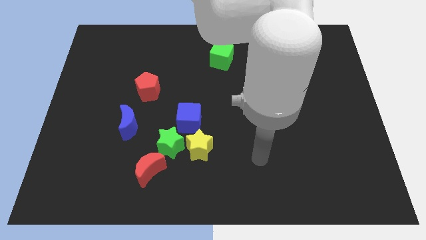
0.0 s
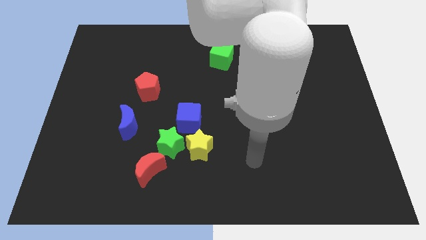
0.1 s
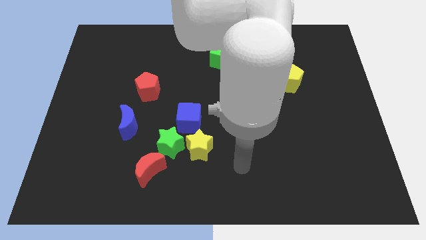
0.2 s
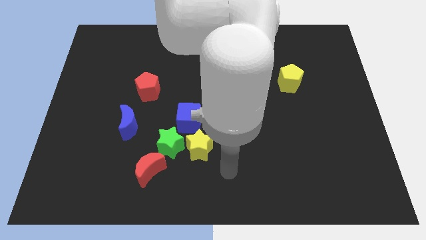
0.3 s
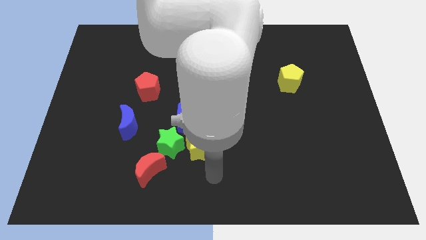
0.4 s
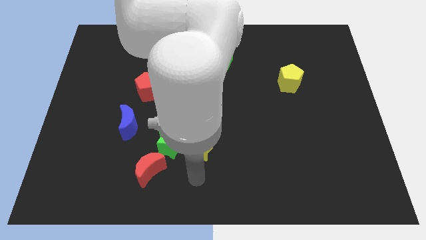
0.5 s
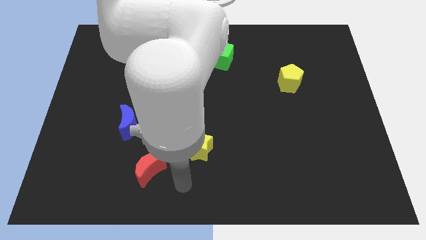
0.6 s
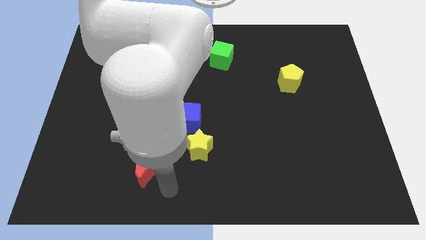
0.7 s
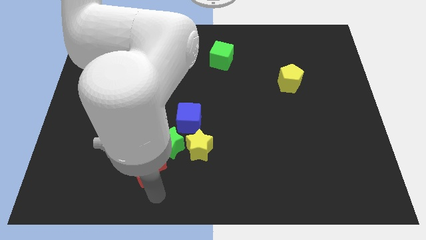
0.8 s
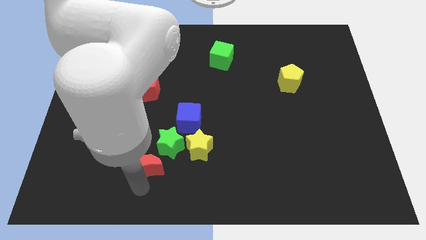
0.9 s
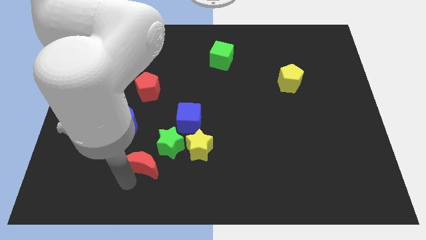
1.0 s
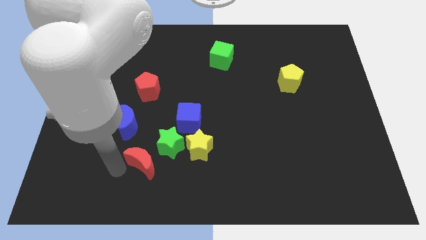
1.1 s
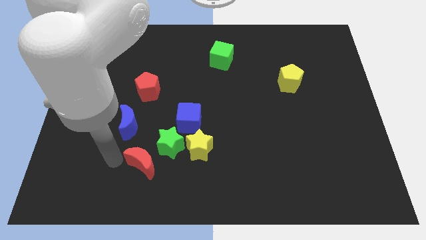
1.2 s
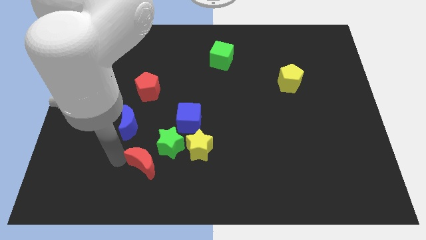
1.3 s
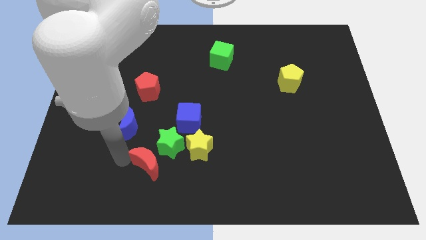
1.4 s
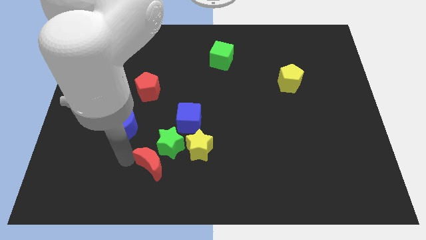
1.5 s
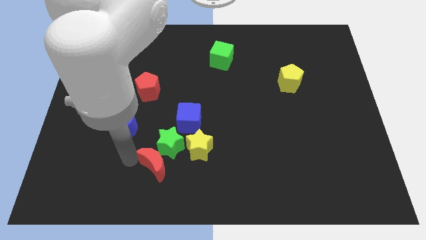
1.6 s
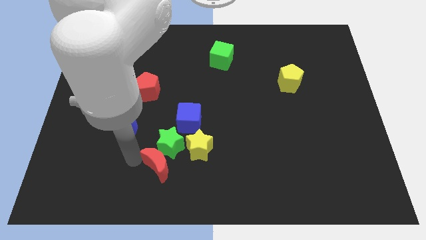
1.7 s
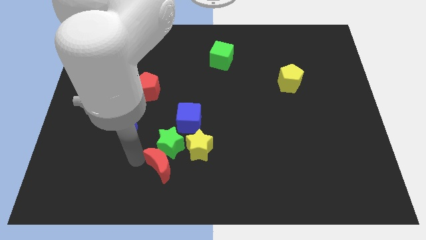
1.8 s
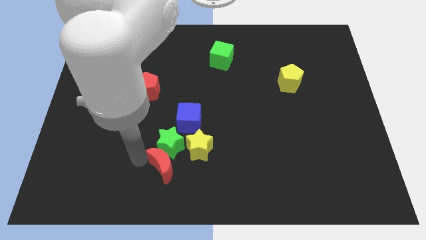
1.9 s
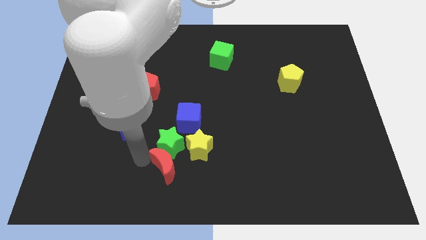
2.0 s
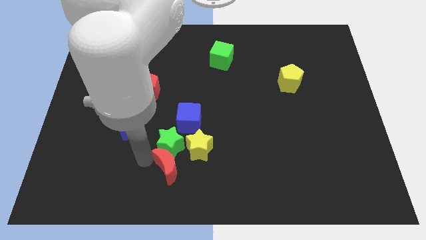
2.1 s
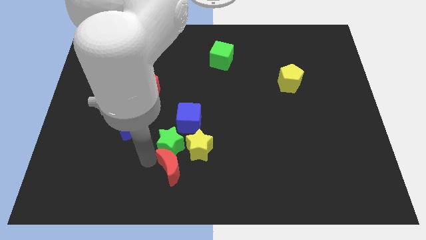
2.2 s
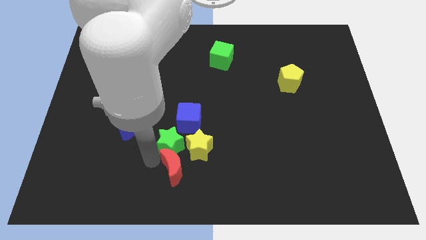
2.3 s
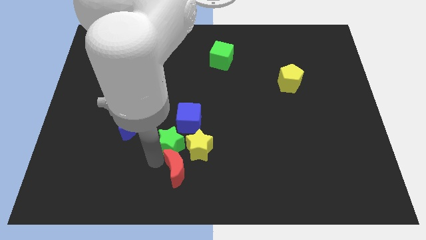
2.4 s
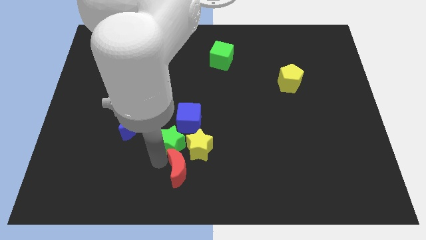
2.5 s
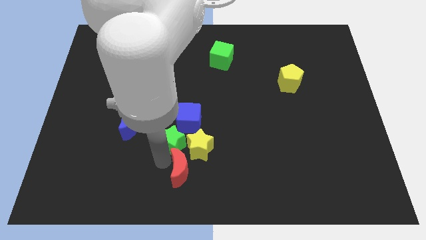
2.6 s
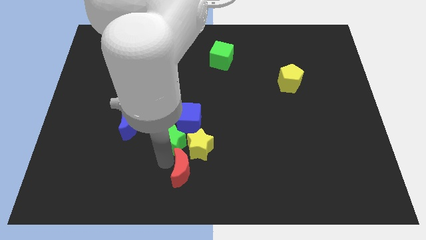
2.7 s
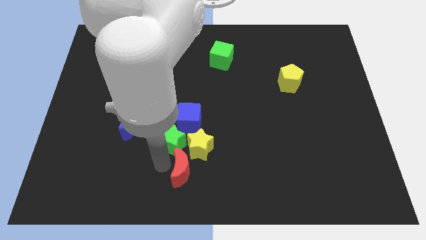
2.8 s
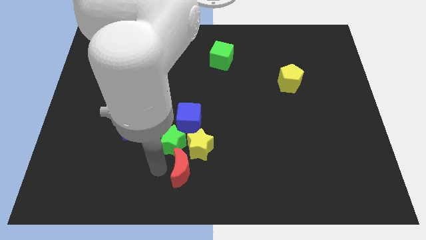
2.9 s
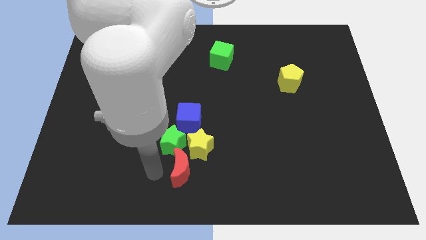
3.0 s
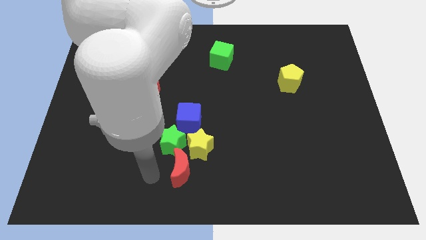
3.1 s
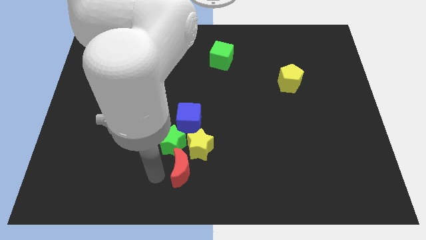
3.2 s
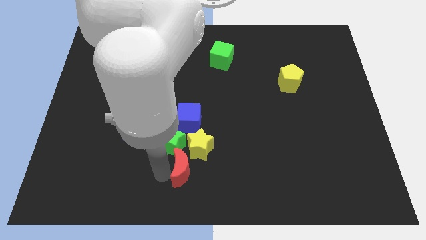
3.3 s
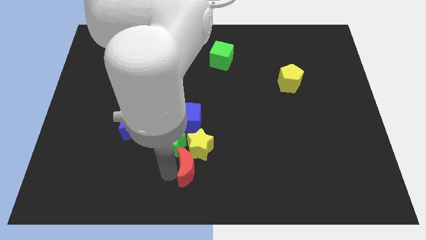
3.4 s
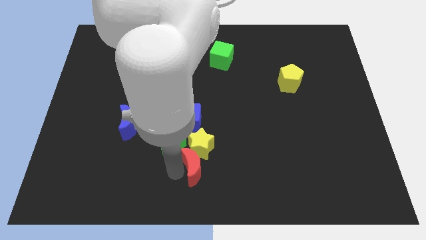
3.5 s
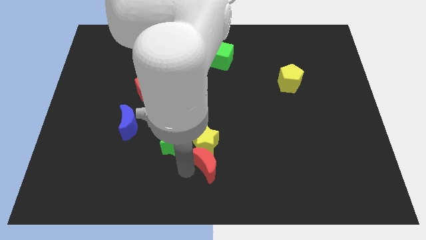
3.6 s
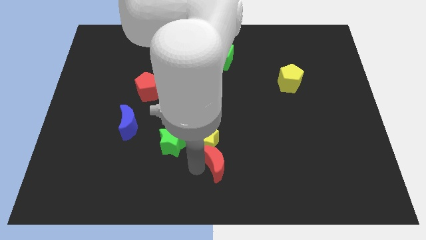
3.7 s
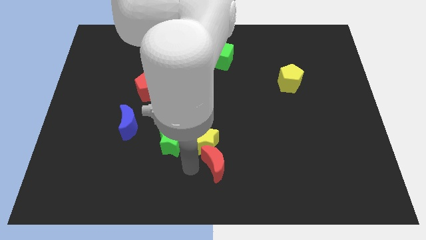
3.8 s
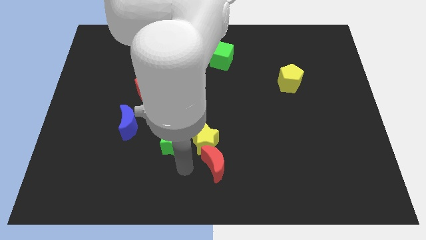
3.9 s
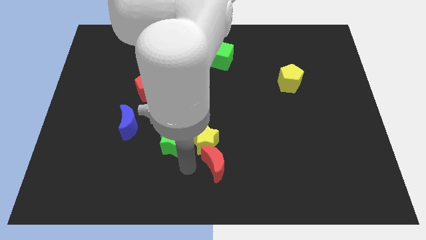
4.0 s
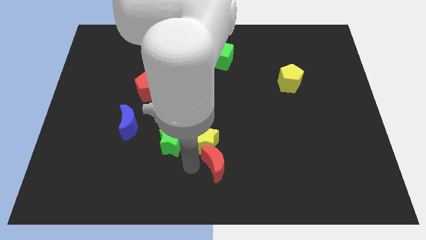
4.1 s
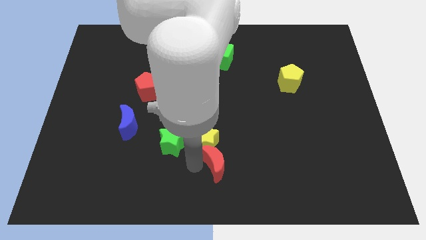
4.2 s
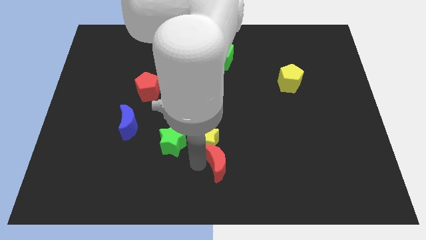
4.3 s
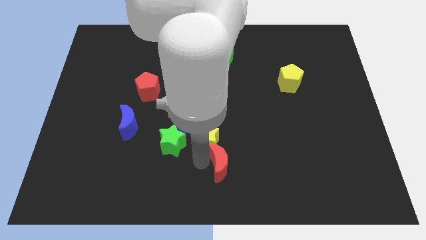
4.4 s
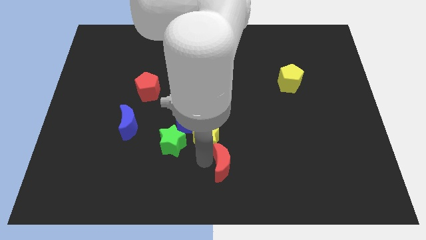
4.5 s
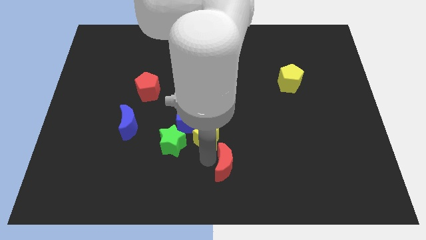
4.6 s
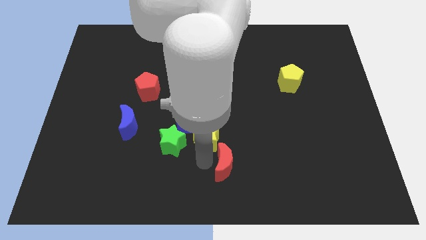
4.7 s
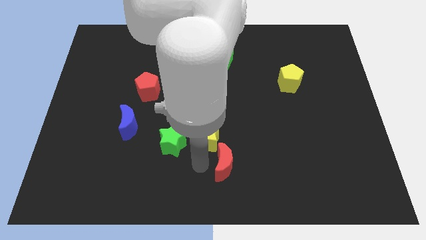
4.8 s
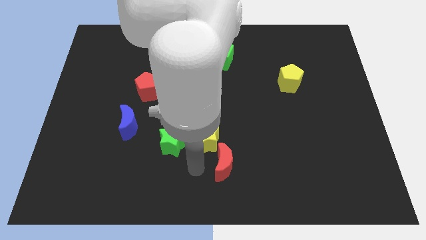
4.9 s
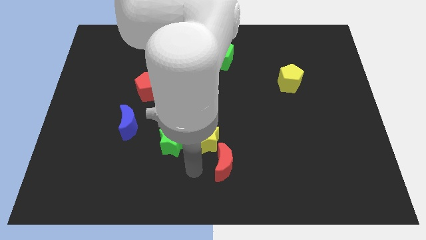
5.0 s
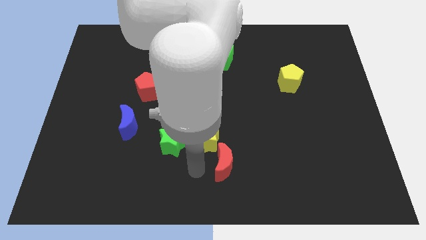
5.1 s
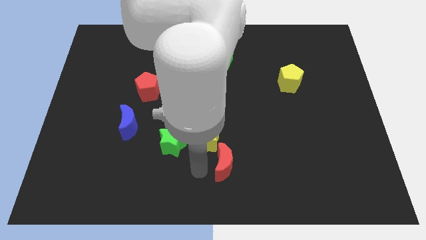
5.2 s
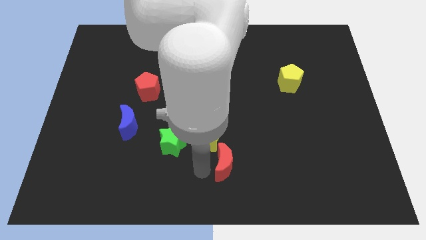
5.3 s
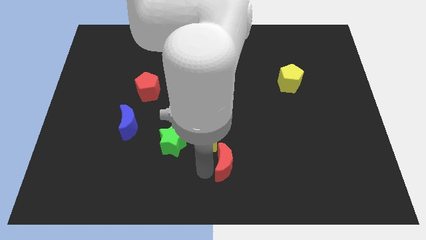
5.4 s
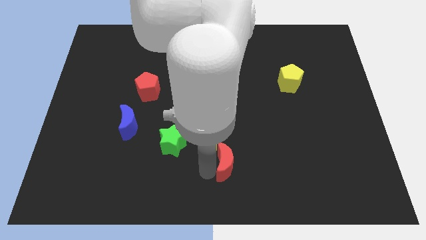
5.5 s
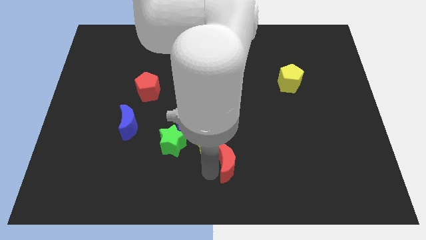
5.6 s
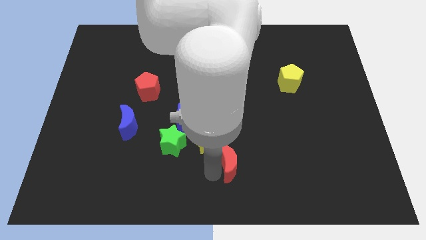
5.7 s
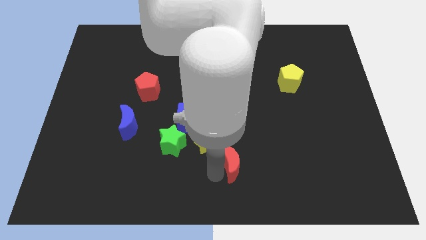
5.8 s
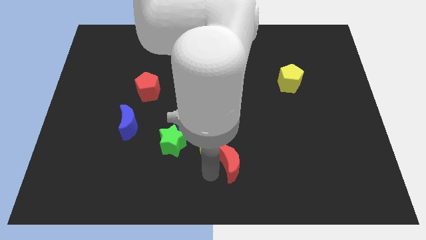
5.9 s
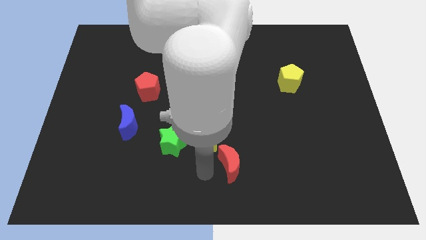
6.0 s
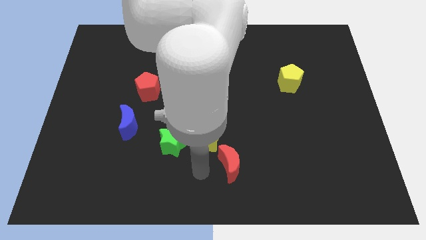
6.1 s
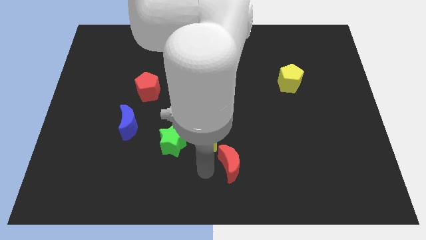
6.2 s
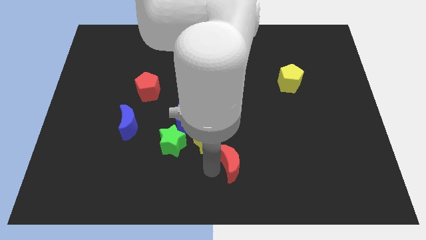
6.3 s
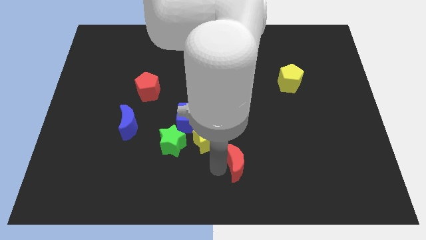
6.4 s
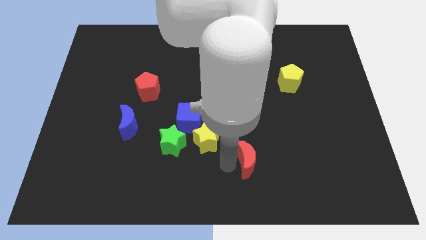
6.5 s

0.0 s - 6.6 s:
slide the red moon right

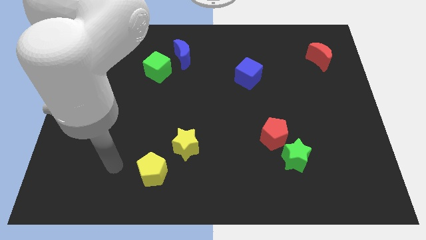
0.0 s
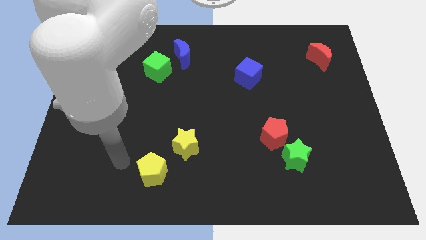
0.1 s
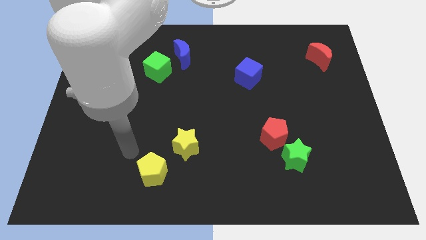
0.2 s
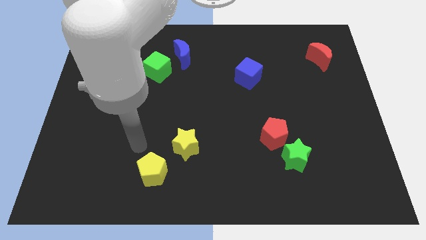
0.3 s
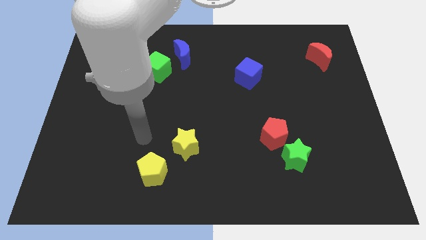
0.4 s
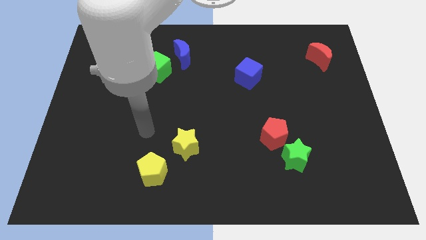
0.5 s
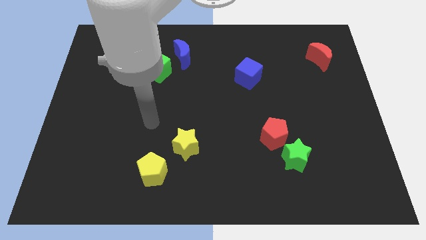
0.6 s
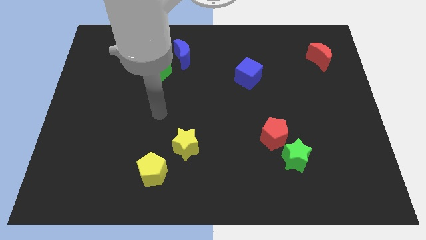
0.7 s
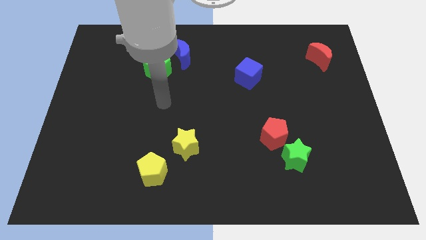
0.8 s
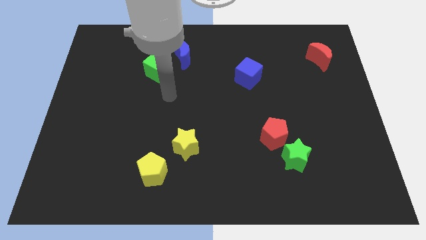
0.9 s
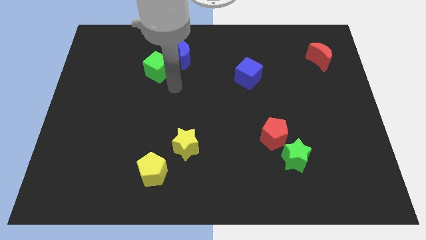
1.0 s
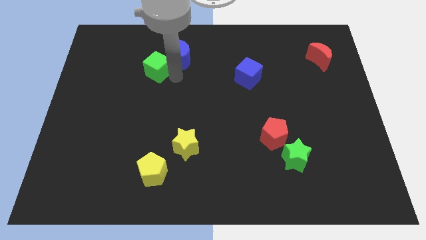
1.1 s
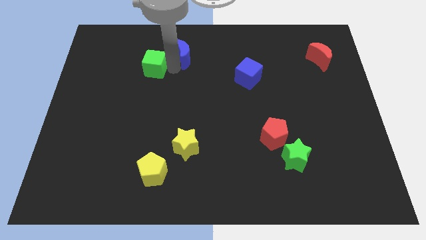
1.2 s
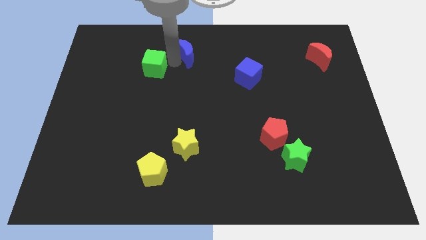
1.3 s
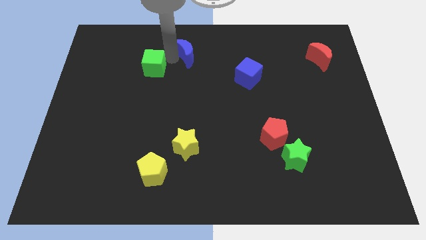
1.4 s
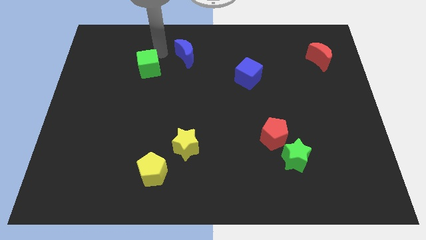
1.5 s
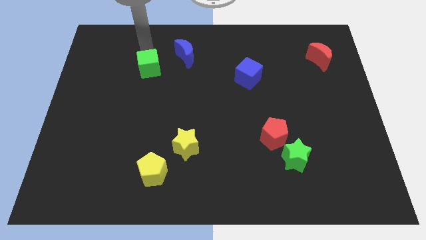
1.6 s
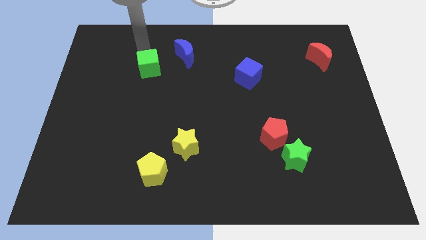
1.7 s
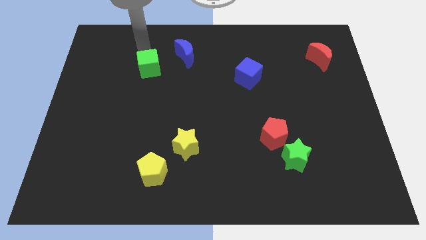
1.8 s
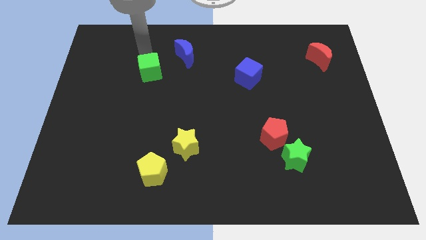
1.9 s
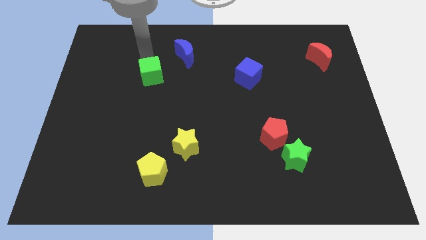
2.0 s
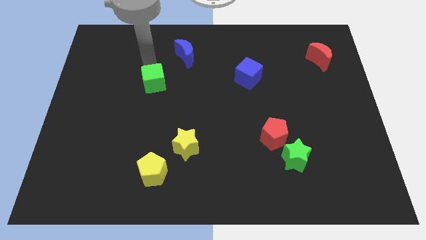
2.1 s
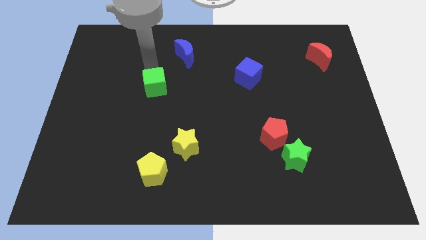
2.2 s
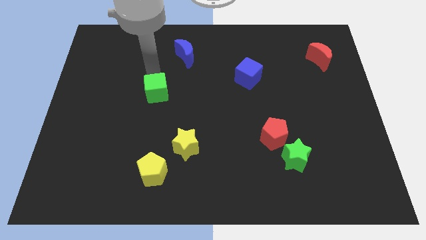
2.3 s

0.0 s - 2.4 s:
slightly push the green cube down
